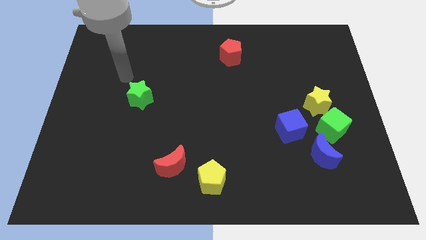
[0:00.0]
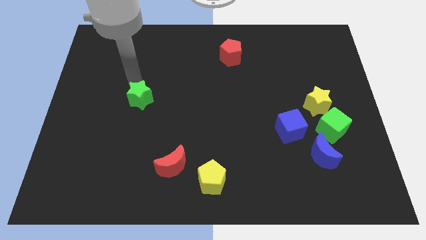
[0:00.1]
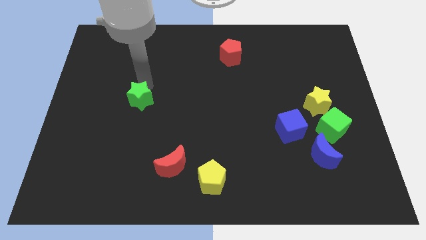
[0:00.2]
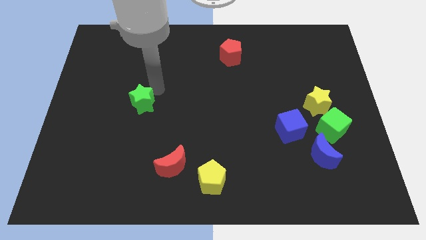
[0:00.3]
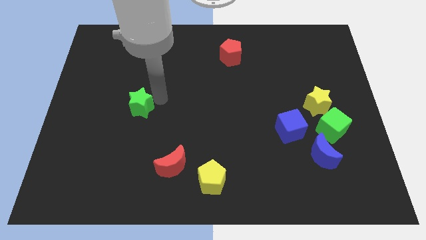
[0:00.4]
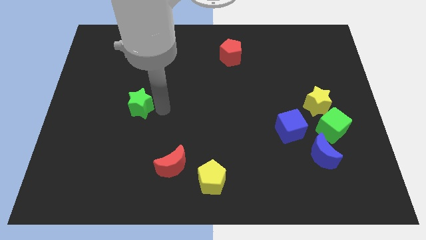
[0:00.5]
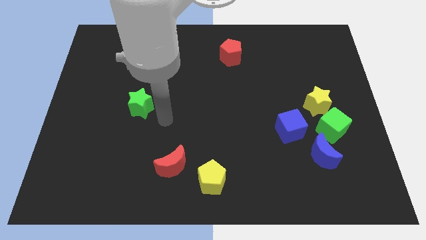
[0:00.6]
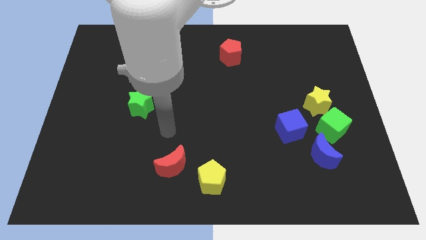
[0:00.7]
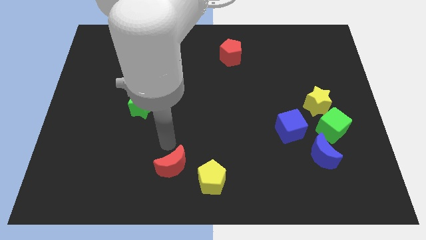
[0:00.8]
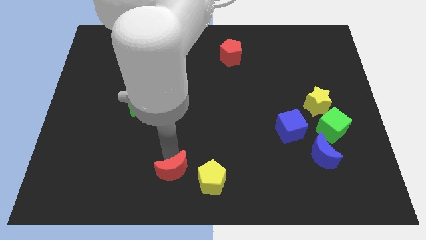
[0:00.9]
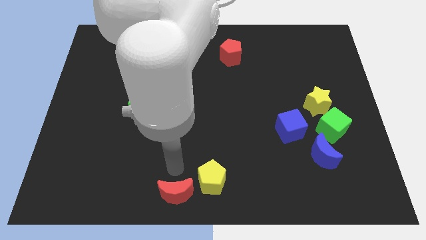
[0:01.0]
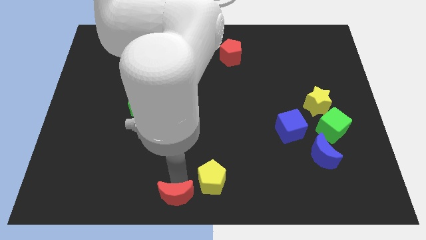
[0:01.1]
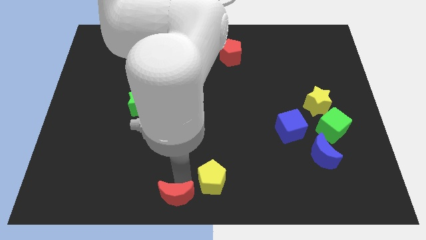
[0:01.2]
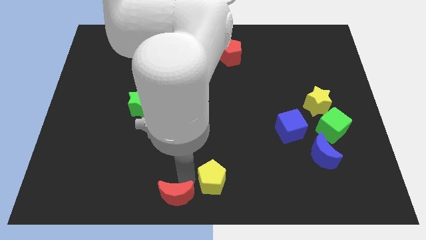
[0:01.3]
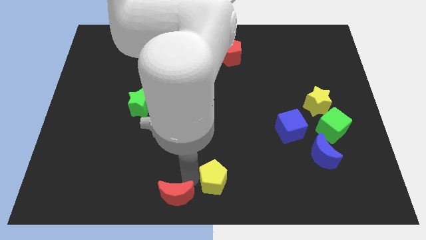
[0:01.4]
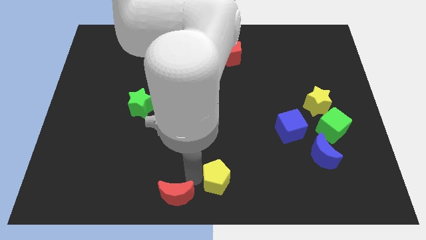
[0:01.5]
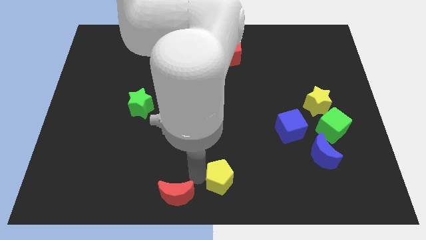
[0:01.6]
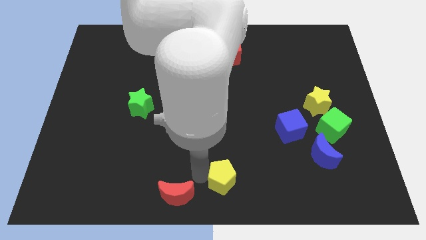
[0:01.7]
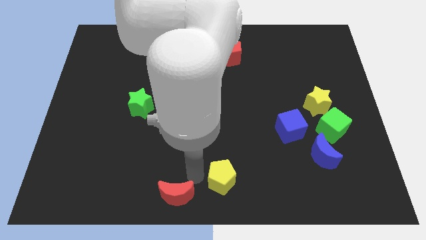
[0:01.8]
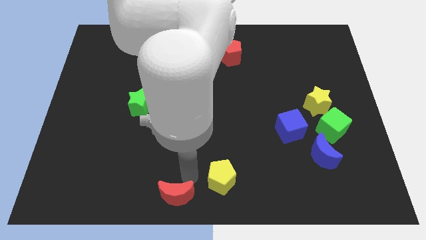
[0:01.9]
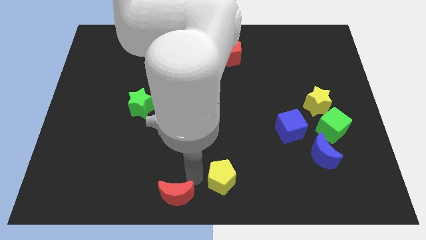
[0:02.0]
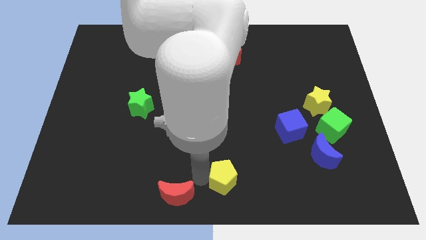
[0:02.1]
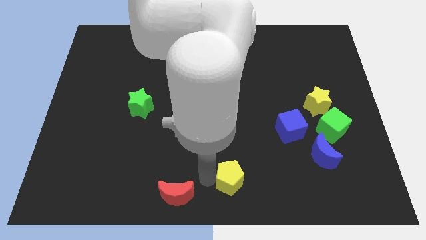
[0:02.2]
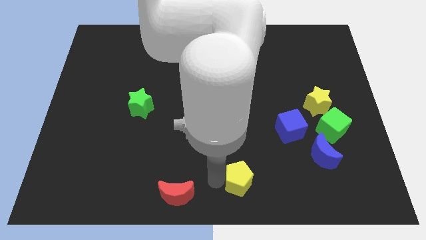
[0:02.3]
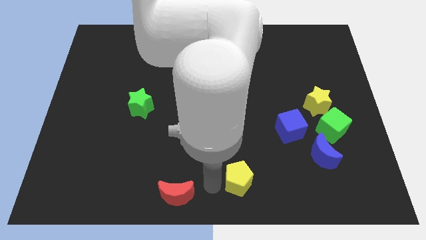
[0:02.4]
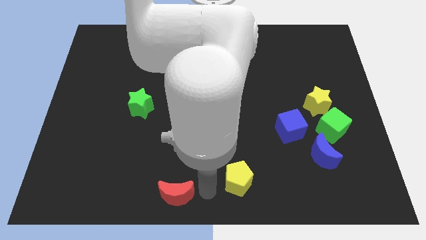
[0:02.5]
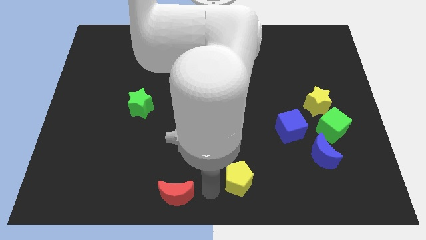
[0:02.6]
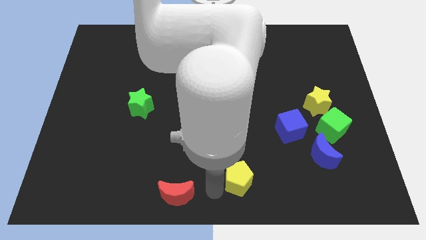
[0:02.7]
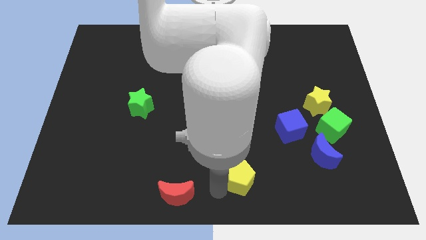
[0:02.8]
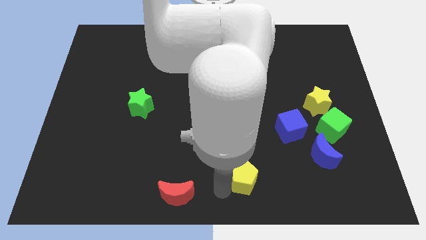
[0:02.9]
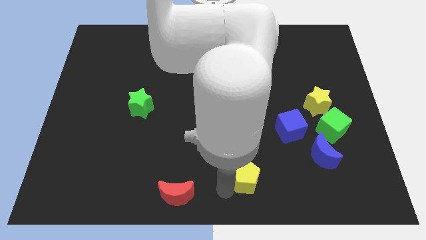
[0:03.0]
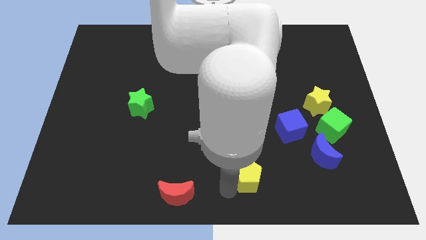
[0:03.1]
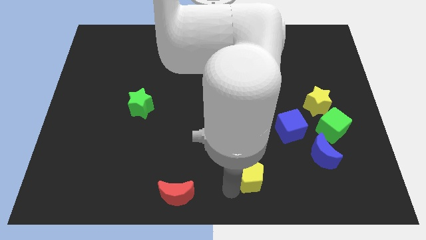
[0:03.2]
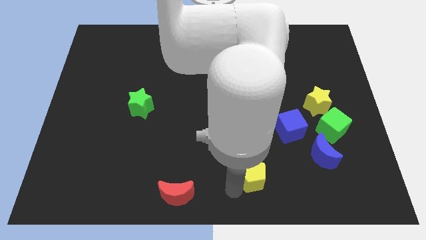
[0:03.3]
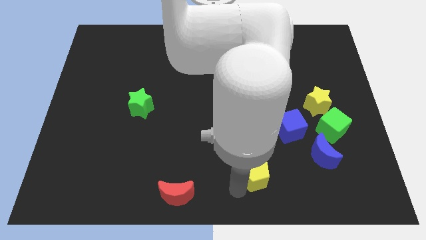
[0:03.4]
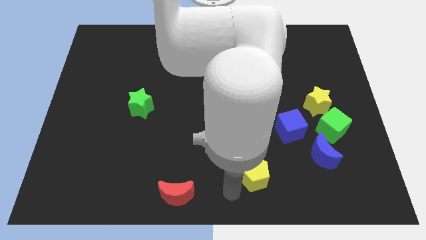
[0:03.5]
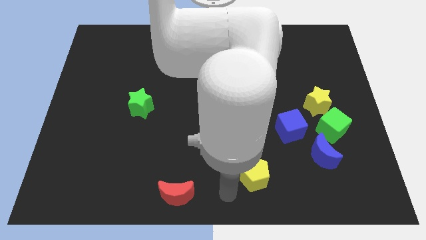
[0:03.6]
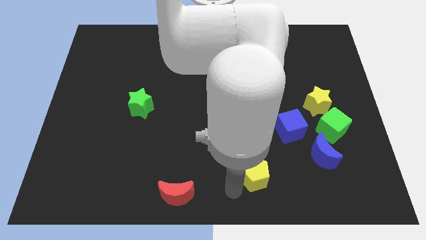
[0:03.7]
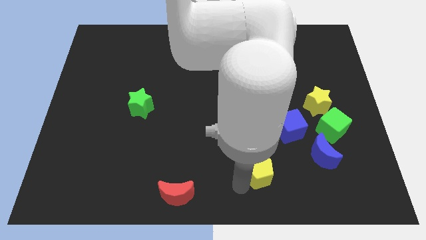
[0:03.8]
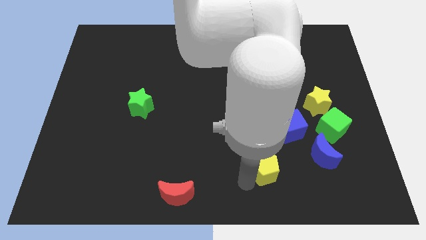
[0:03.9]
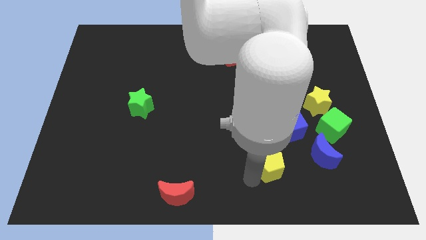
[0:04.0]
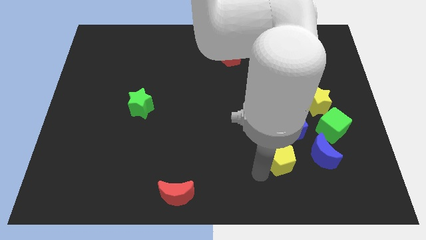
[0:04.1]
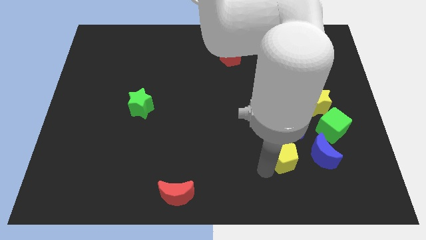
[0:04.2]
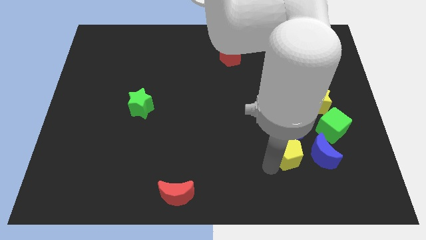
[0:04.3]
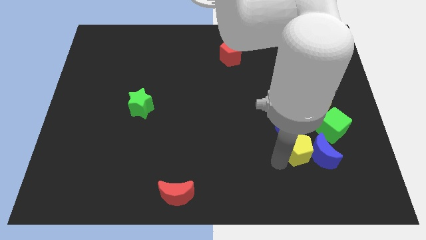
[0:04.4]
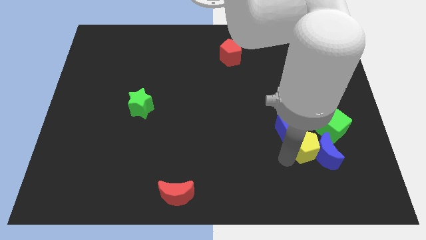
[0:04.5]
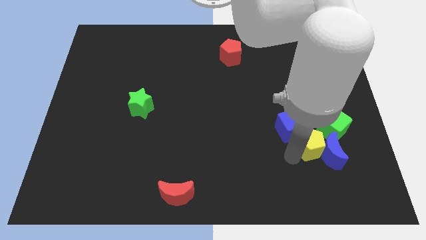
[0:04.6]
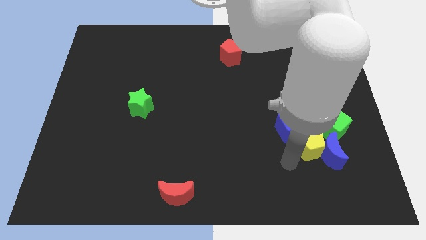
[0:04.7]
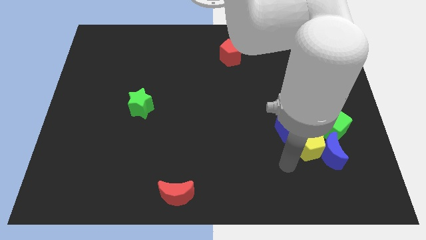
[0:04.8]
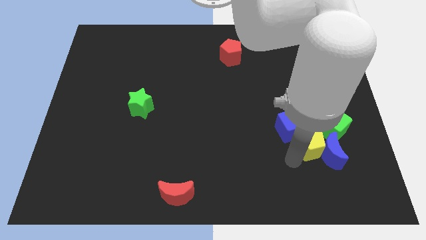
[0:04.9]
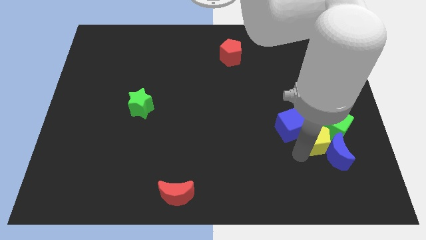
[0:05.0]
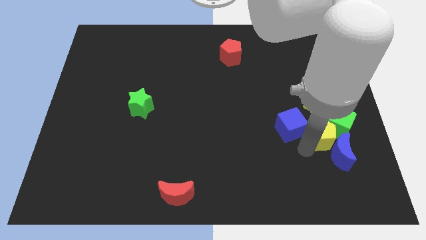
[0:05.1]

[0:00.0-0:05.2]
put the yellow pentagon towards the green cube

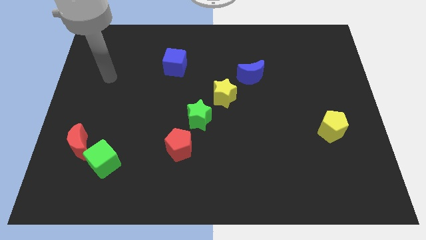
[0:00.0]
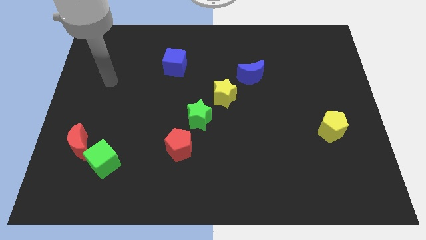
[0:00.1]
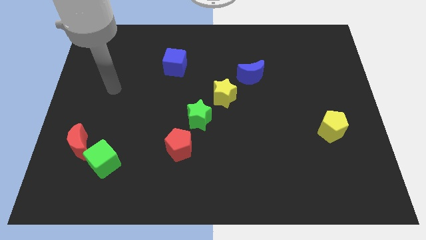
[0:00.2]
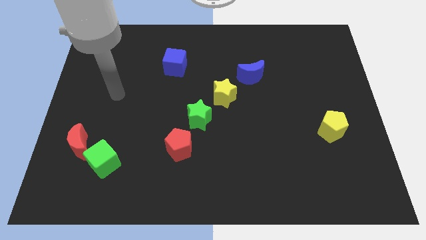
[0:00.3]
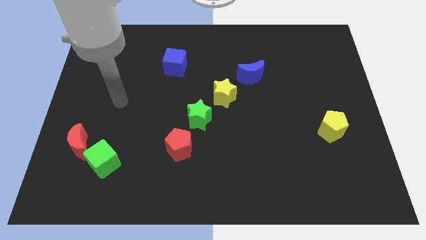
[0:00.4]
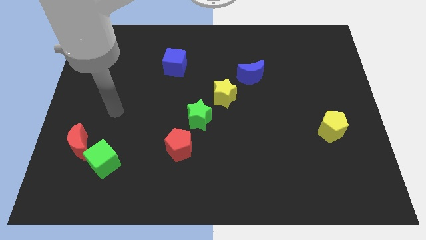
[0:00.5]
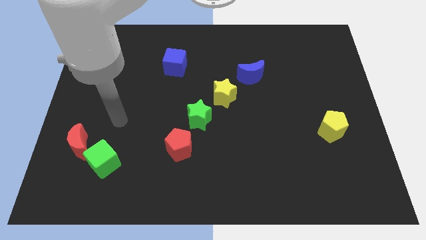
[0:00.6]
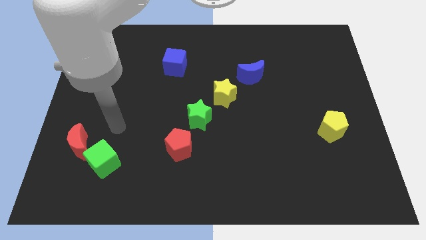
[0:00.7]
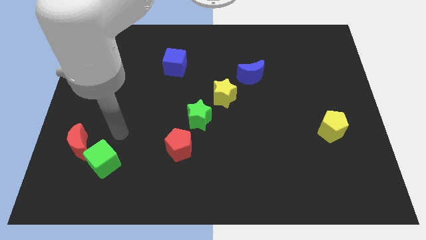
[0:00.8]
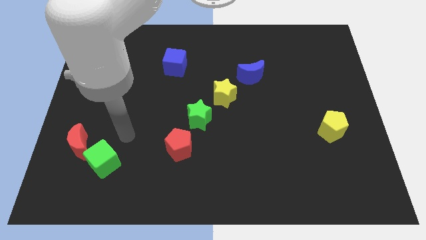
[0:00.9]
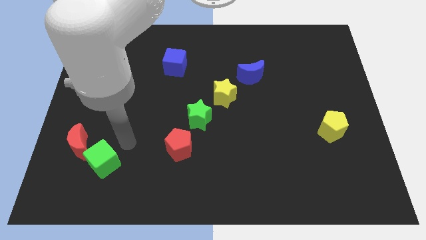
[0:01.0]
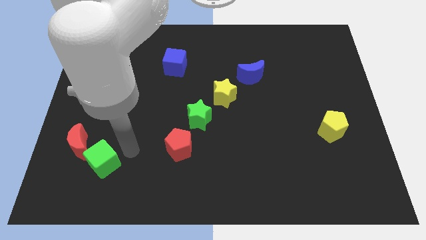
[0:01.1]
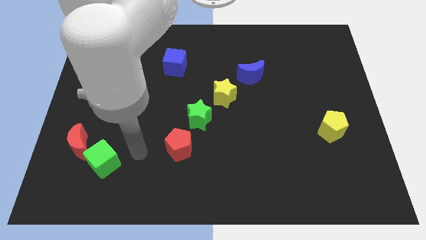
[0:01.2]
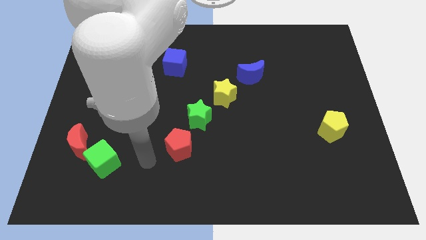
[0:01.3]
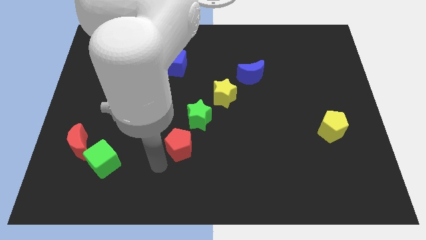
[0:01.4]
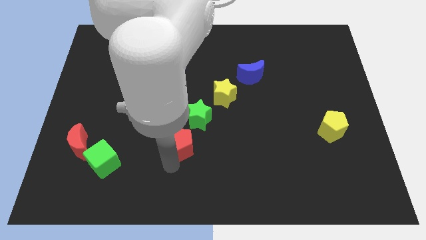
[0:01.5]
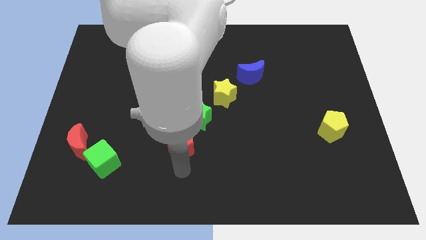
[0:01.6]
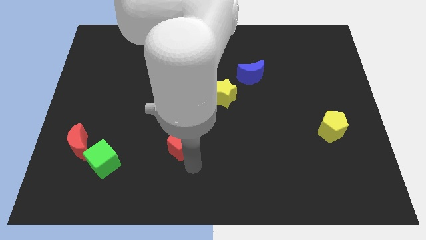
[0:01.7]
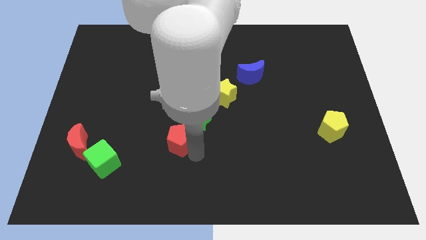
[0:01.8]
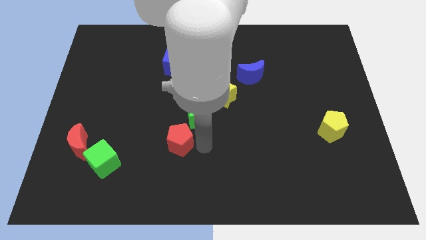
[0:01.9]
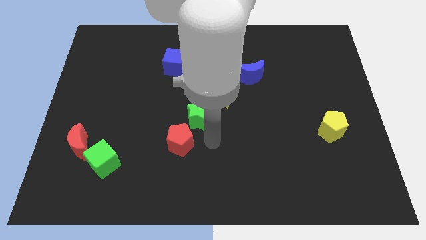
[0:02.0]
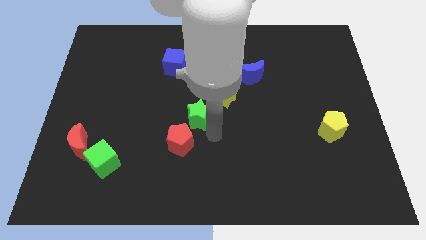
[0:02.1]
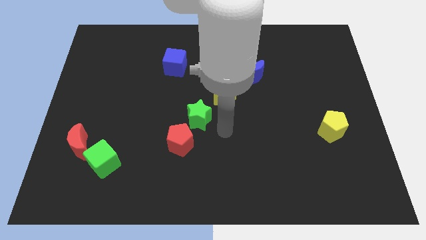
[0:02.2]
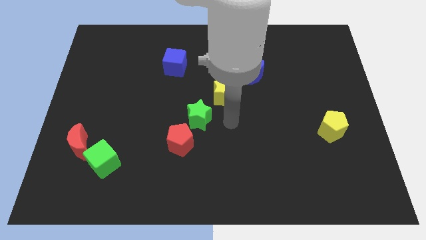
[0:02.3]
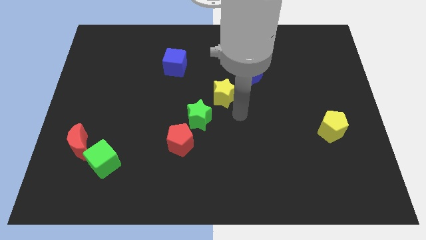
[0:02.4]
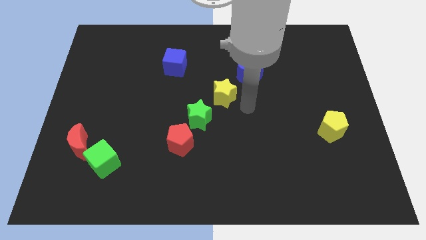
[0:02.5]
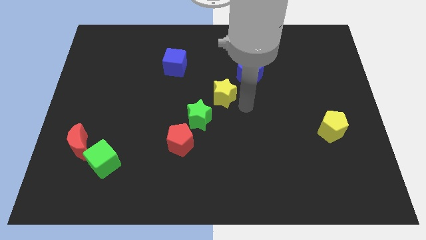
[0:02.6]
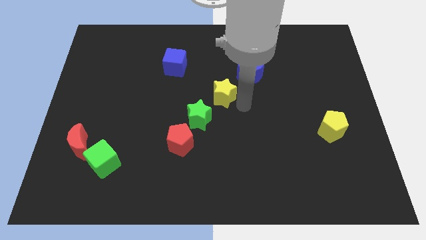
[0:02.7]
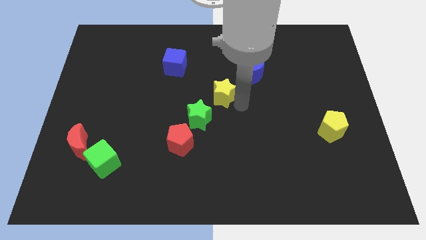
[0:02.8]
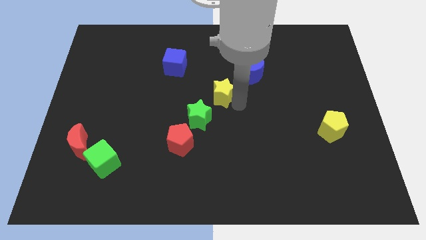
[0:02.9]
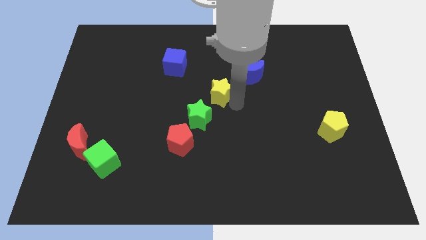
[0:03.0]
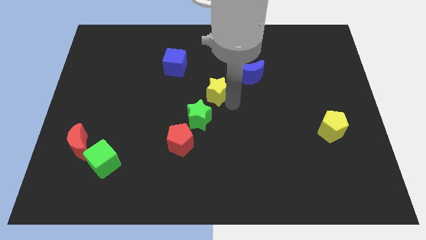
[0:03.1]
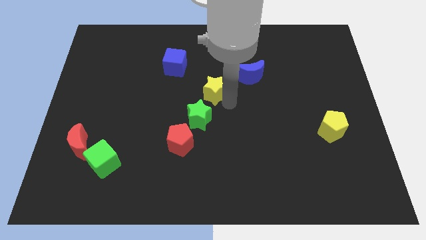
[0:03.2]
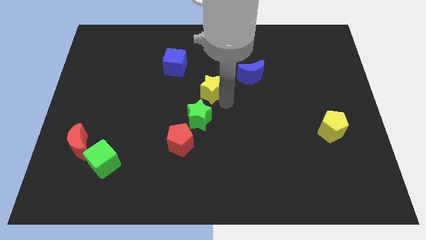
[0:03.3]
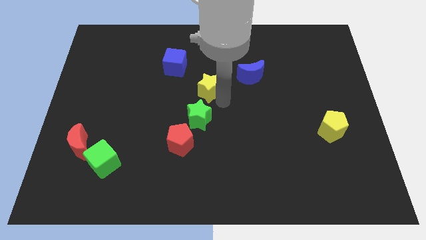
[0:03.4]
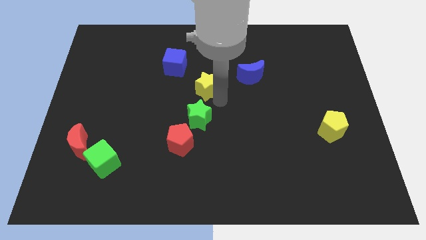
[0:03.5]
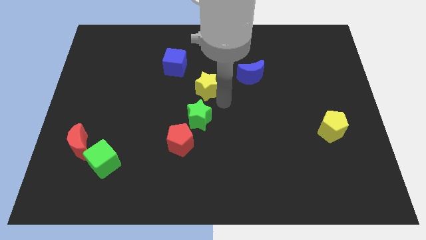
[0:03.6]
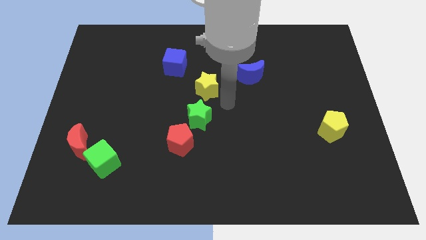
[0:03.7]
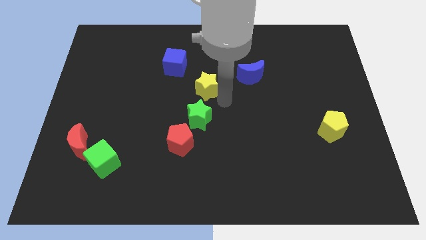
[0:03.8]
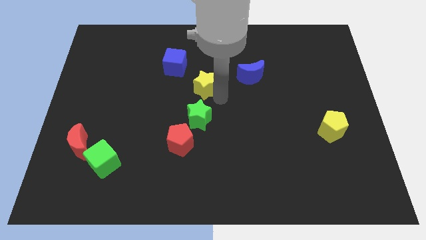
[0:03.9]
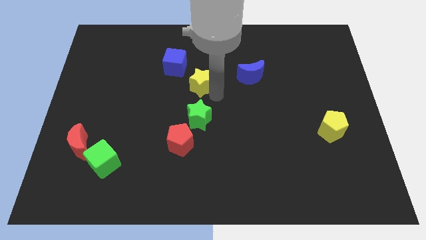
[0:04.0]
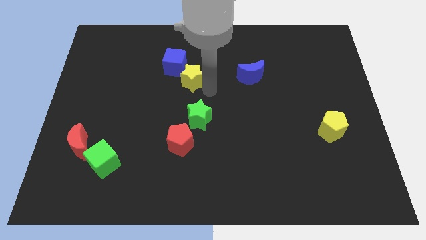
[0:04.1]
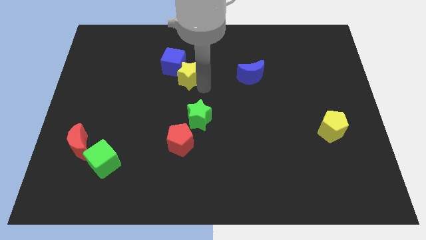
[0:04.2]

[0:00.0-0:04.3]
push the yellow star to the blue cube
